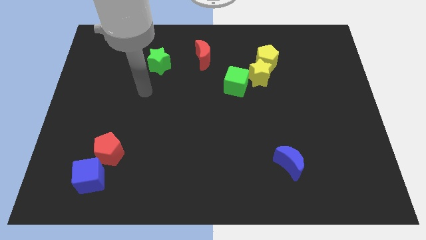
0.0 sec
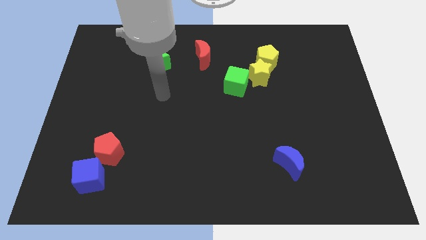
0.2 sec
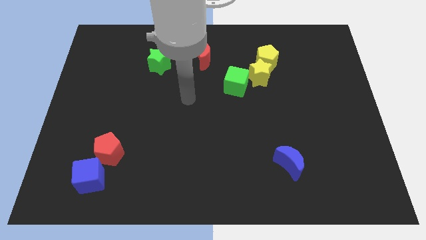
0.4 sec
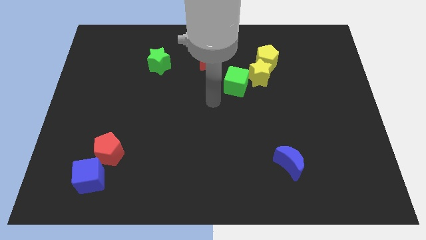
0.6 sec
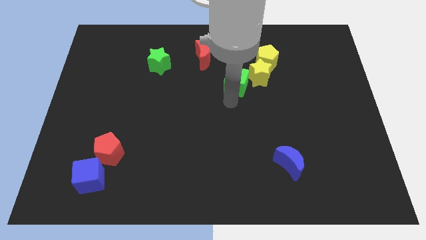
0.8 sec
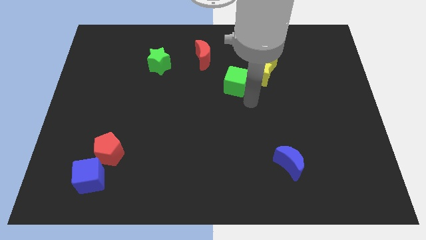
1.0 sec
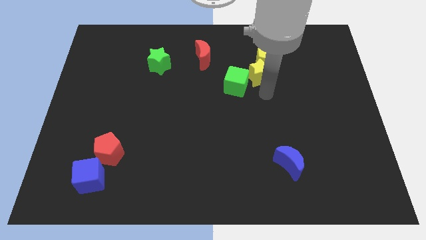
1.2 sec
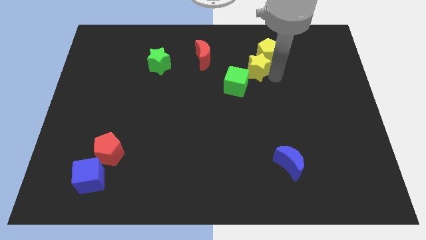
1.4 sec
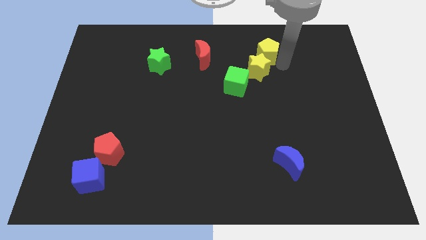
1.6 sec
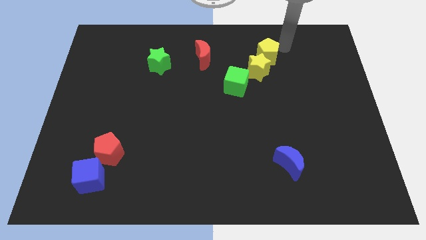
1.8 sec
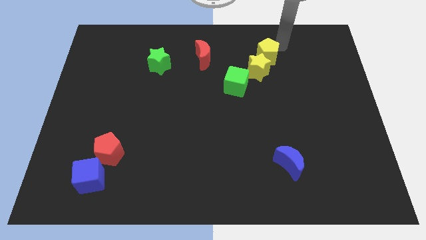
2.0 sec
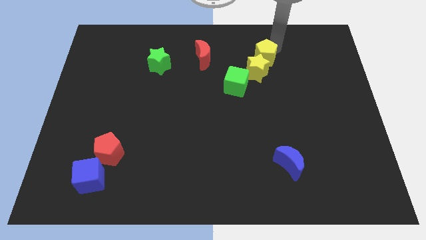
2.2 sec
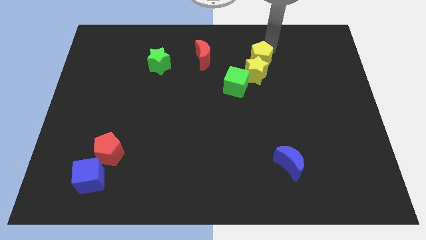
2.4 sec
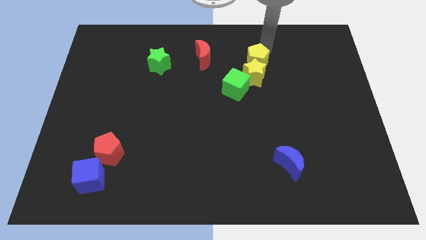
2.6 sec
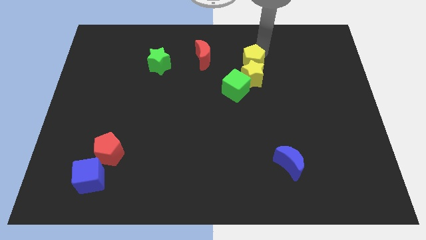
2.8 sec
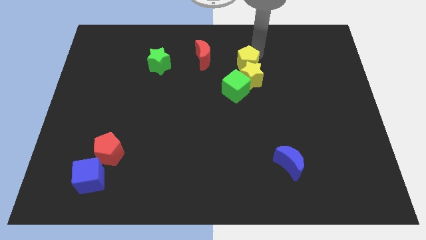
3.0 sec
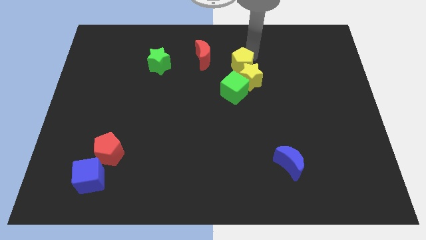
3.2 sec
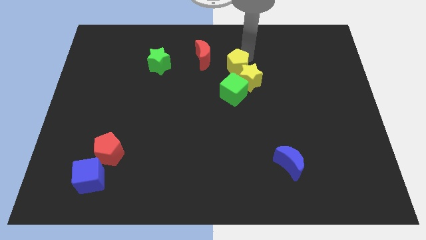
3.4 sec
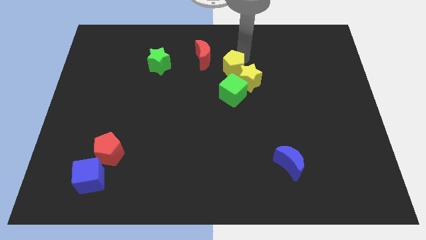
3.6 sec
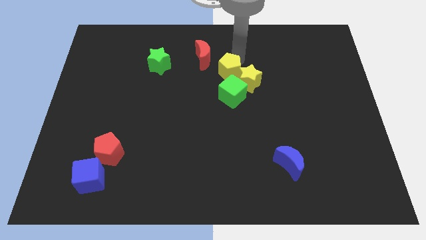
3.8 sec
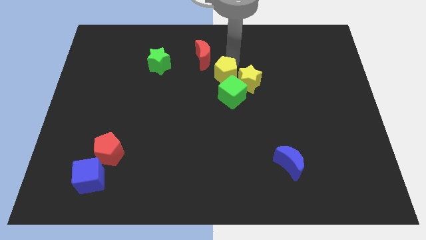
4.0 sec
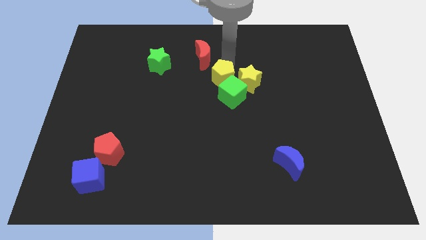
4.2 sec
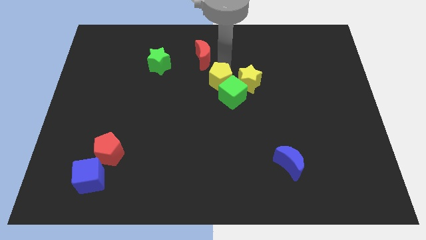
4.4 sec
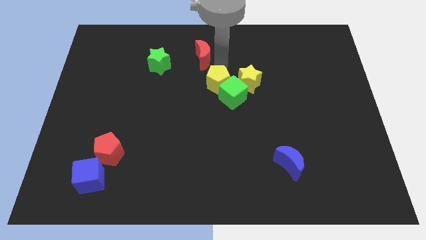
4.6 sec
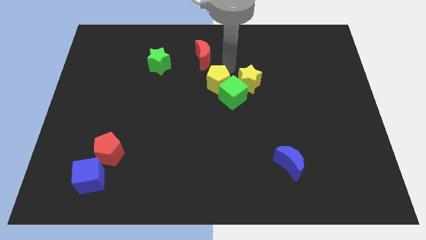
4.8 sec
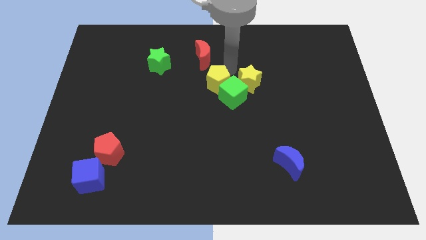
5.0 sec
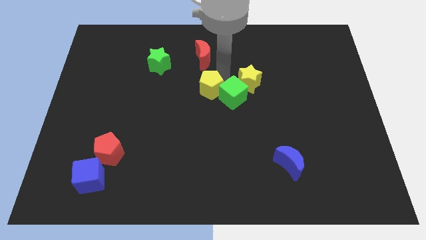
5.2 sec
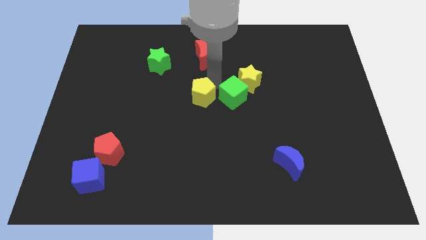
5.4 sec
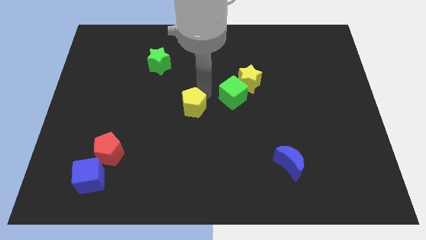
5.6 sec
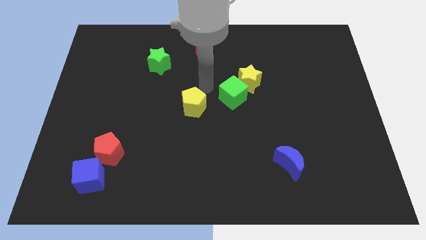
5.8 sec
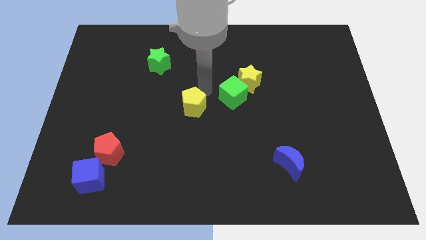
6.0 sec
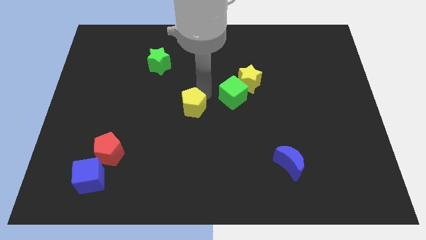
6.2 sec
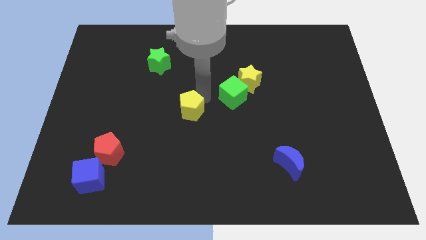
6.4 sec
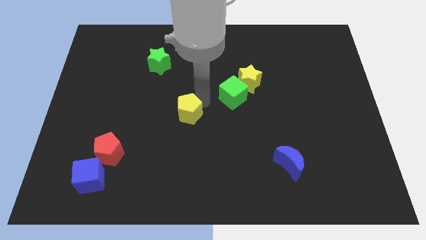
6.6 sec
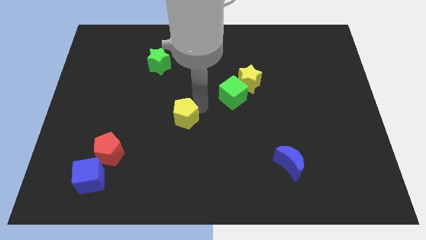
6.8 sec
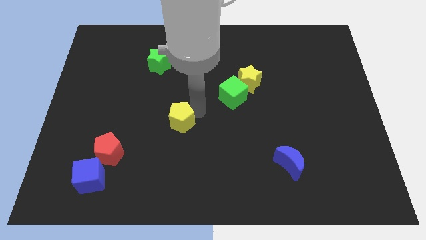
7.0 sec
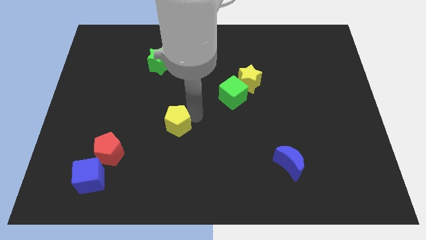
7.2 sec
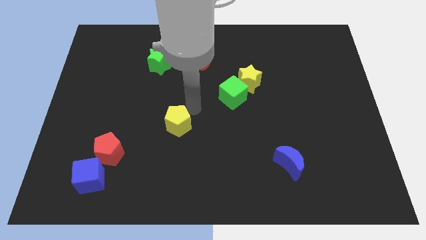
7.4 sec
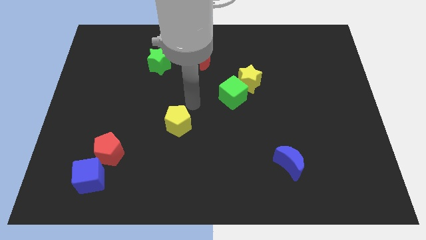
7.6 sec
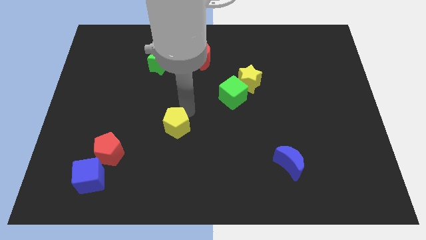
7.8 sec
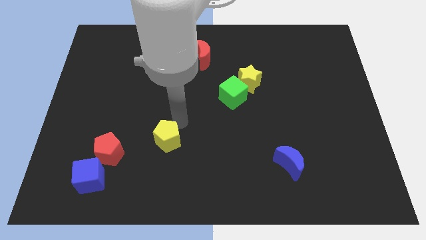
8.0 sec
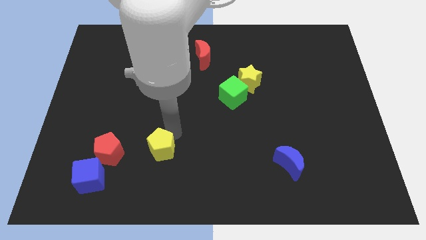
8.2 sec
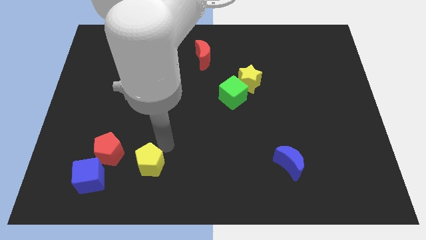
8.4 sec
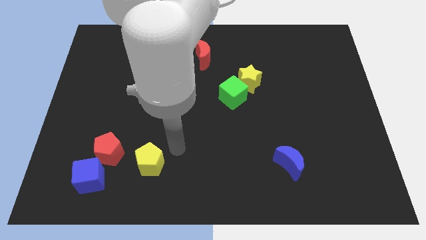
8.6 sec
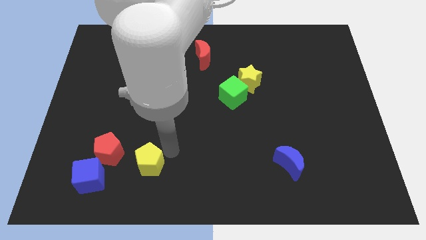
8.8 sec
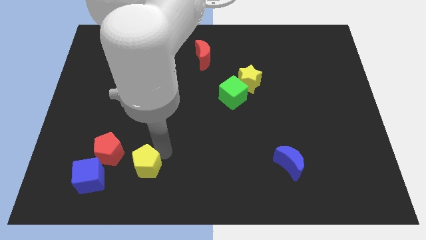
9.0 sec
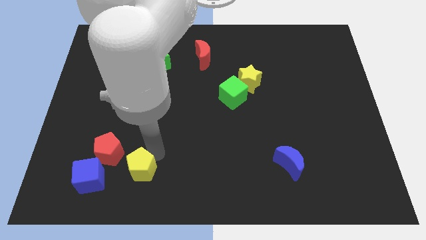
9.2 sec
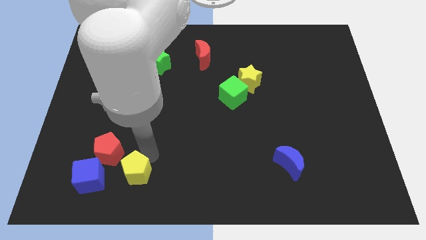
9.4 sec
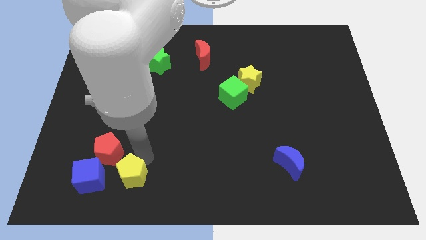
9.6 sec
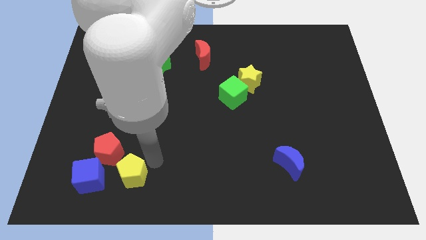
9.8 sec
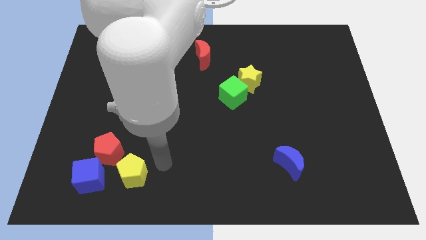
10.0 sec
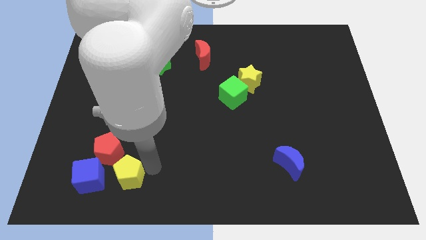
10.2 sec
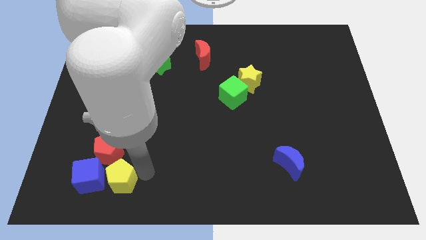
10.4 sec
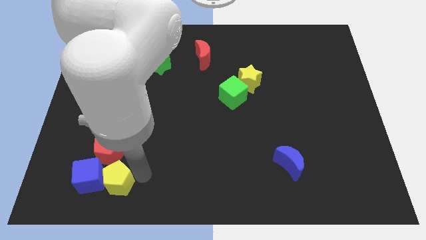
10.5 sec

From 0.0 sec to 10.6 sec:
push the yellow pentagon next to the blue cube

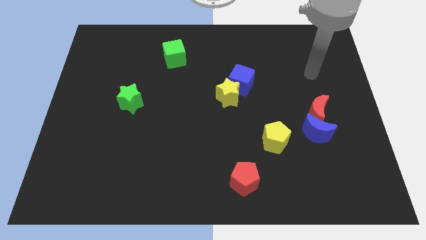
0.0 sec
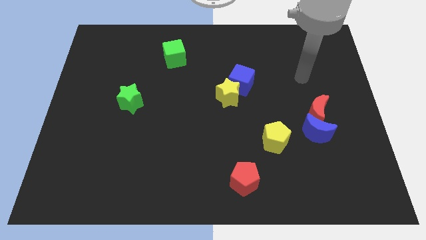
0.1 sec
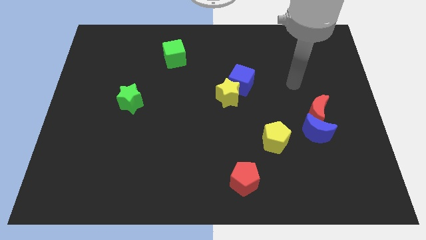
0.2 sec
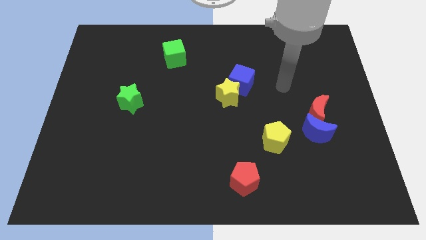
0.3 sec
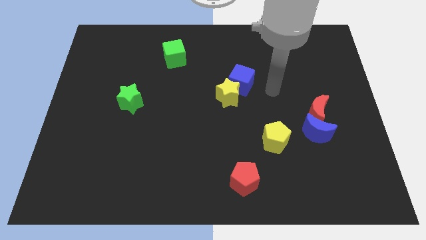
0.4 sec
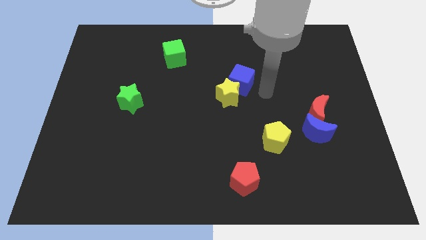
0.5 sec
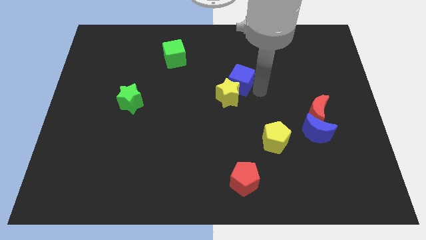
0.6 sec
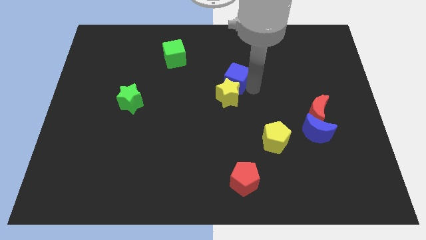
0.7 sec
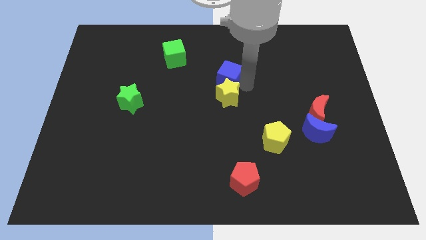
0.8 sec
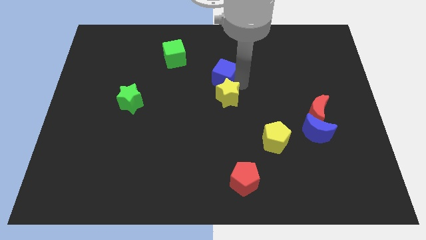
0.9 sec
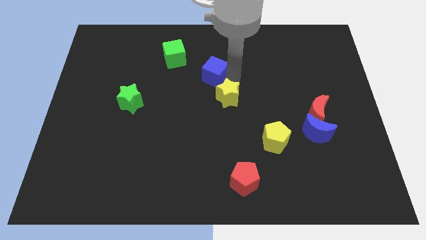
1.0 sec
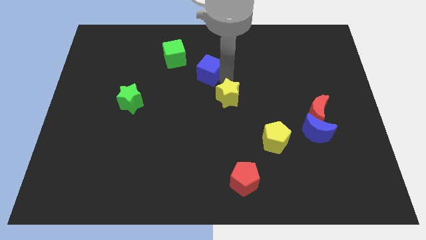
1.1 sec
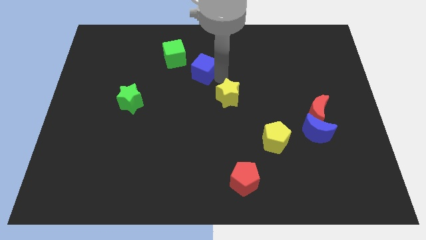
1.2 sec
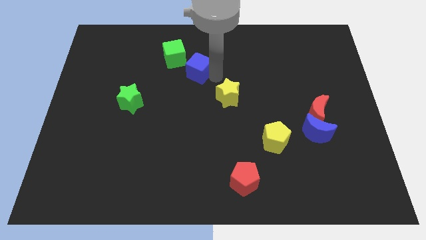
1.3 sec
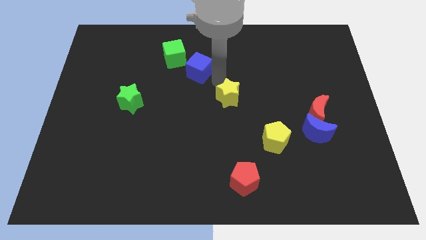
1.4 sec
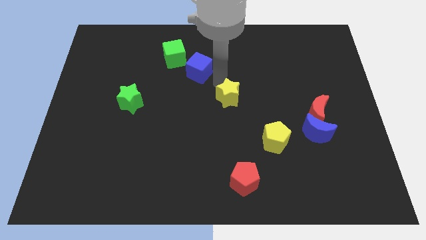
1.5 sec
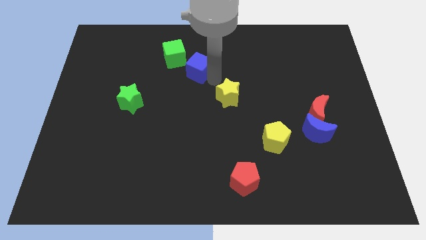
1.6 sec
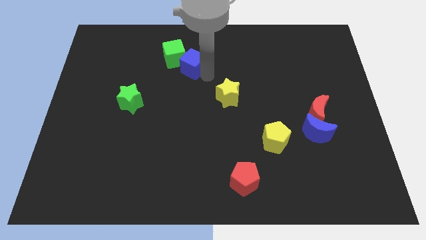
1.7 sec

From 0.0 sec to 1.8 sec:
move the blue cube towards the green cube

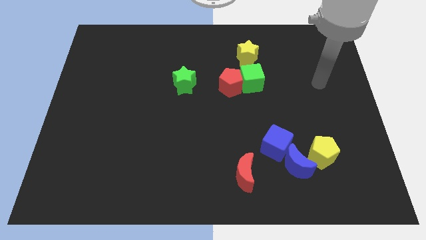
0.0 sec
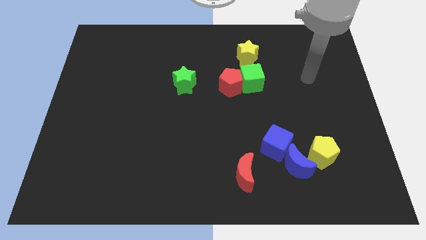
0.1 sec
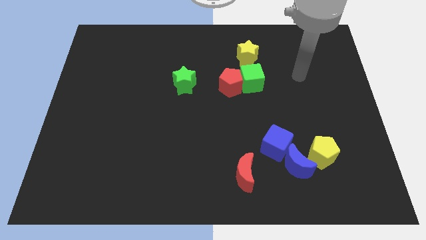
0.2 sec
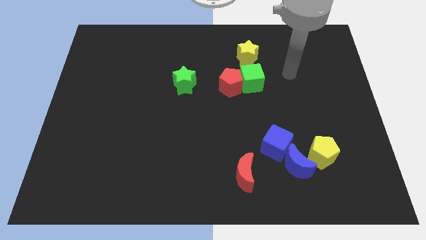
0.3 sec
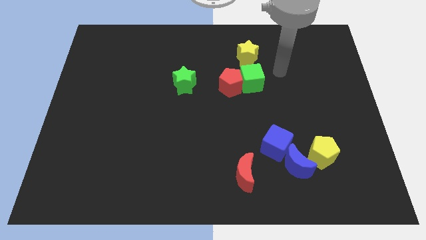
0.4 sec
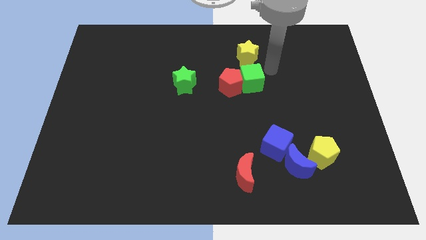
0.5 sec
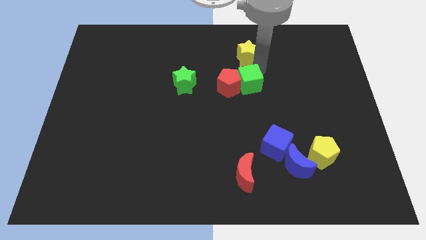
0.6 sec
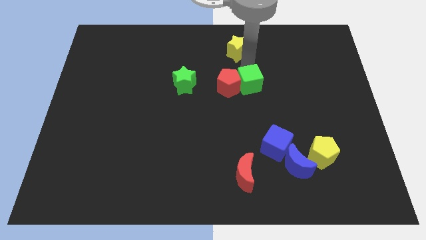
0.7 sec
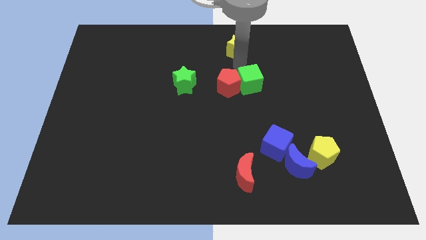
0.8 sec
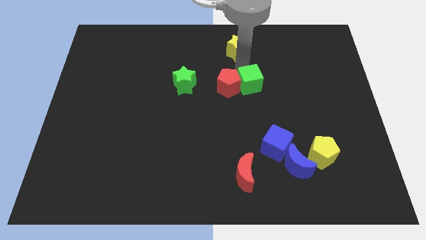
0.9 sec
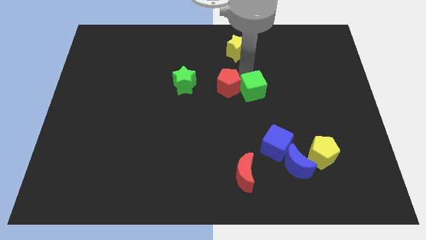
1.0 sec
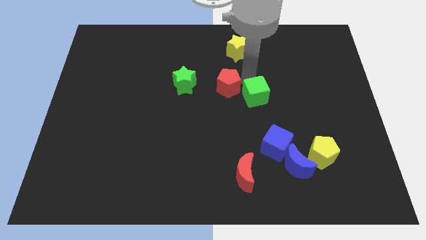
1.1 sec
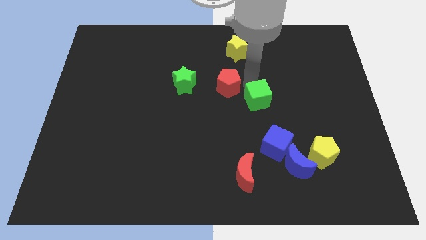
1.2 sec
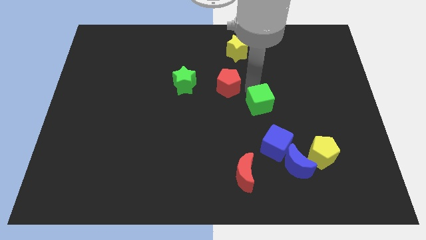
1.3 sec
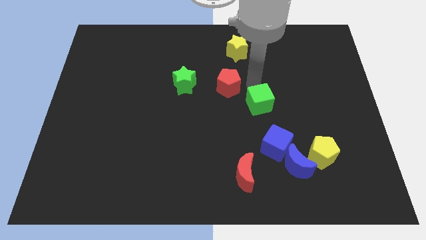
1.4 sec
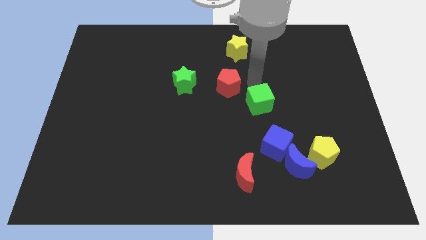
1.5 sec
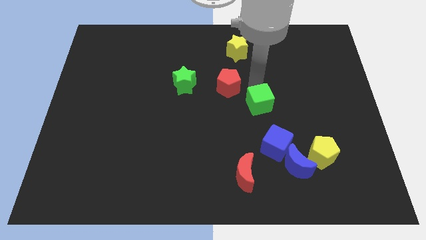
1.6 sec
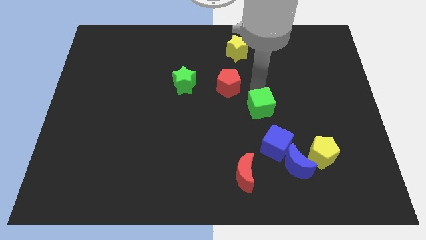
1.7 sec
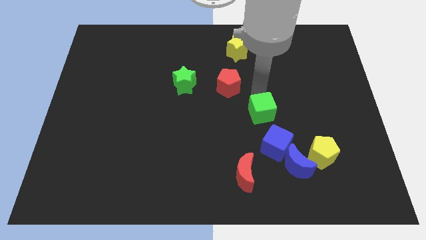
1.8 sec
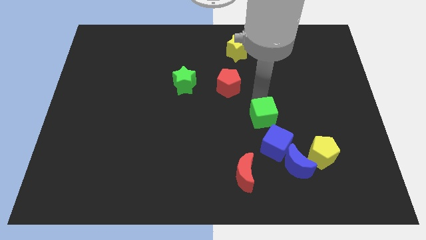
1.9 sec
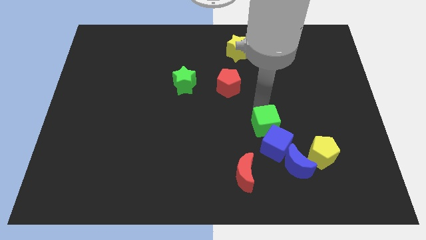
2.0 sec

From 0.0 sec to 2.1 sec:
put the green cube next to the blue cube
